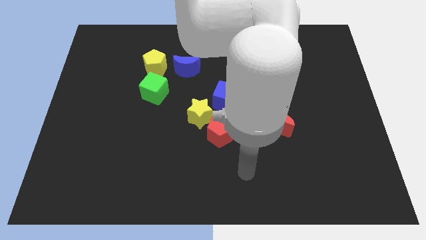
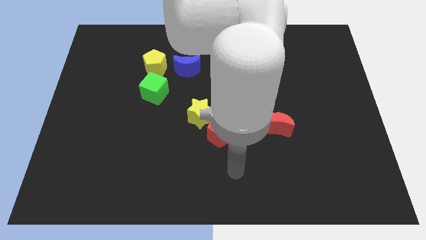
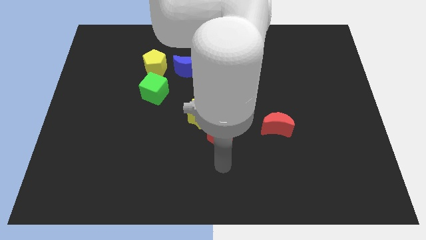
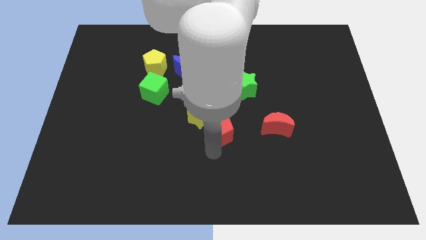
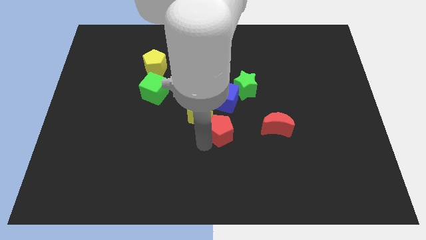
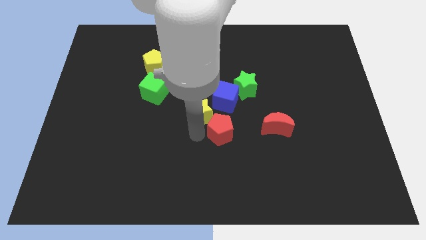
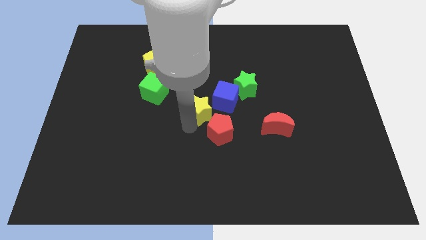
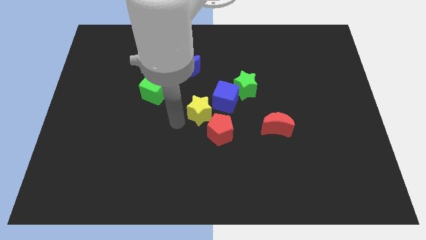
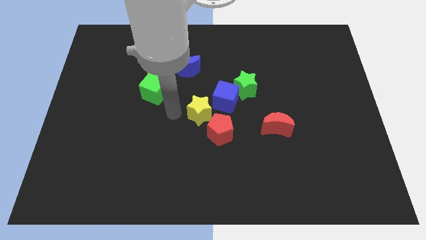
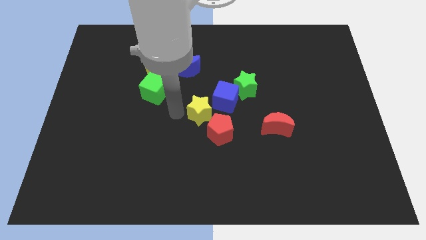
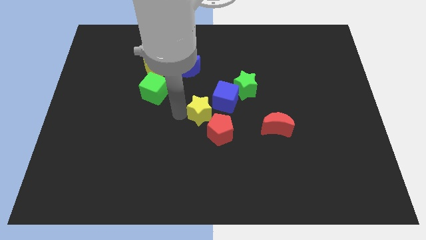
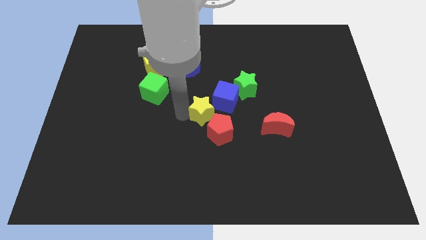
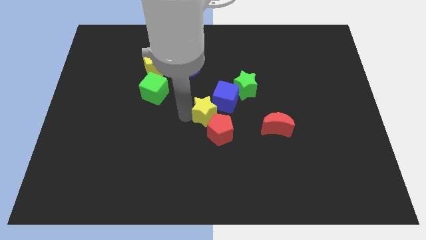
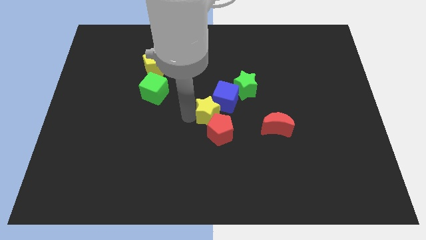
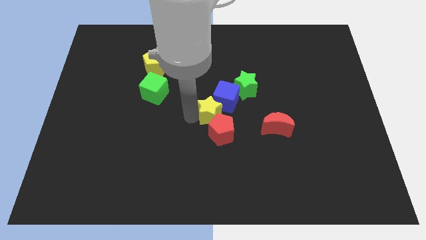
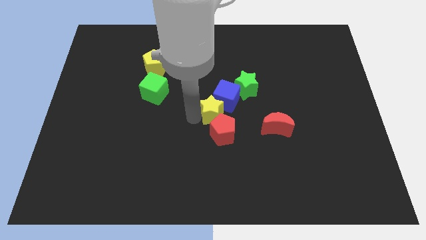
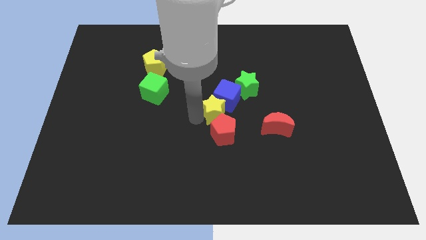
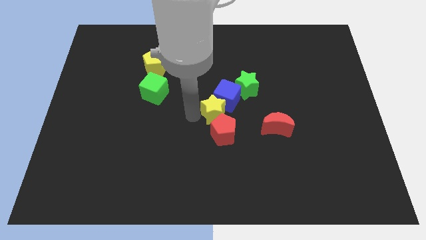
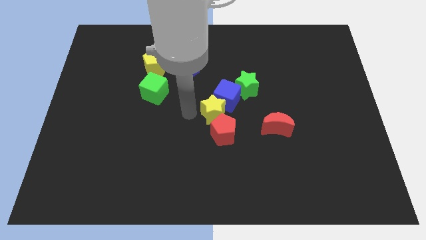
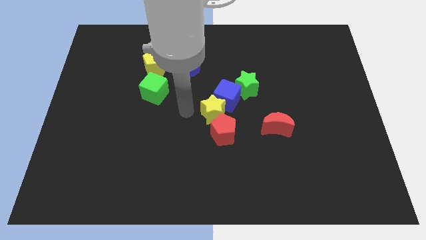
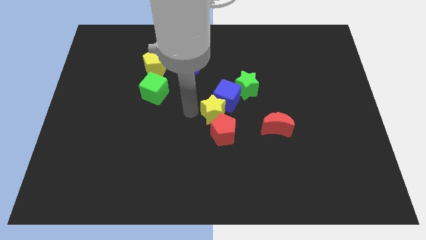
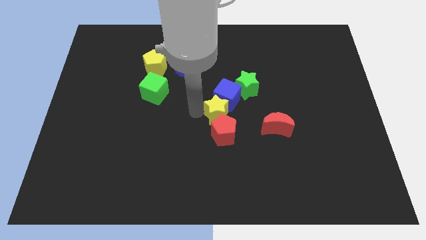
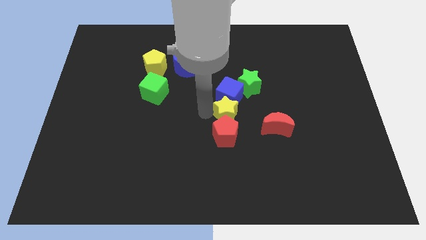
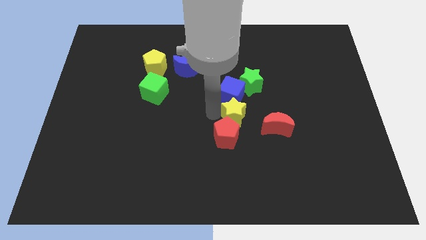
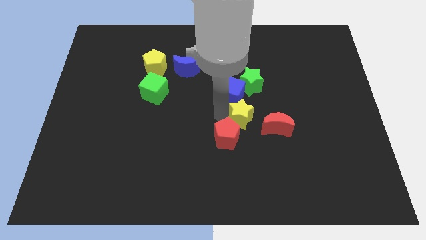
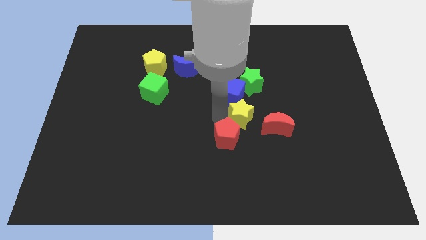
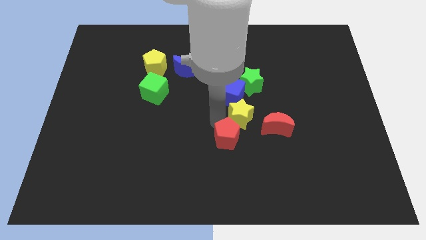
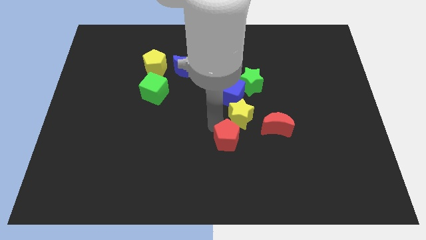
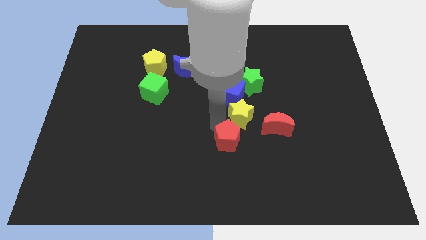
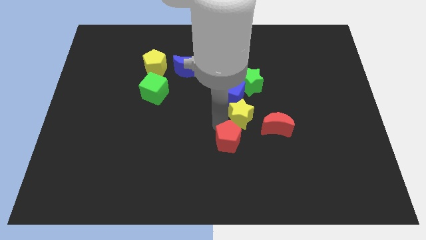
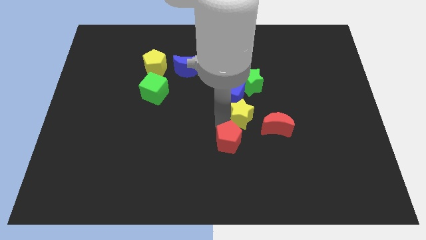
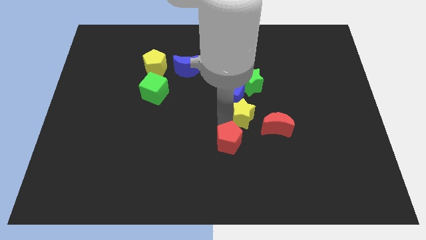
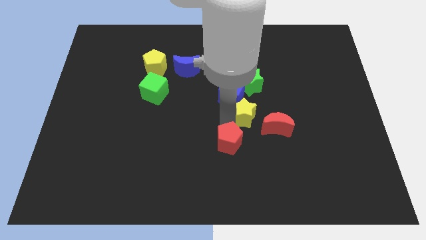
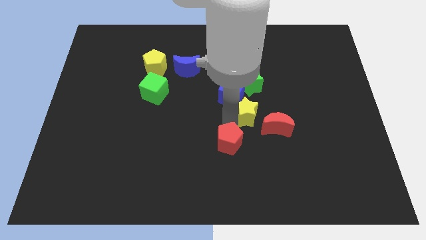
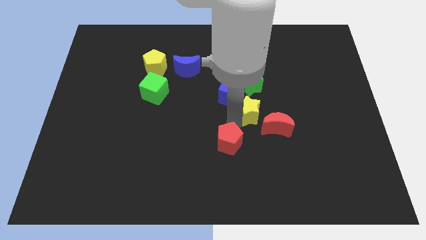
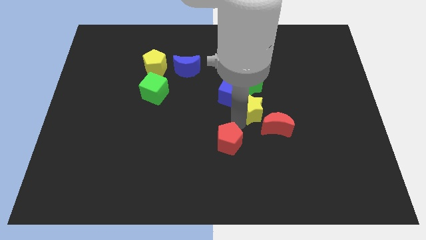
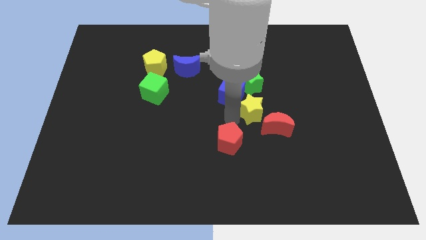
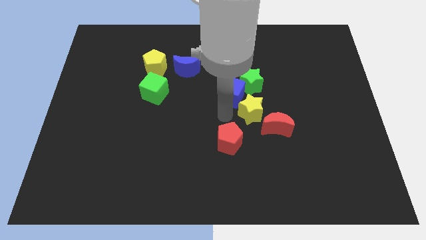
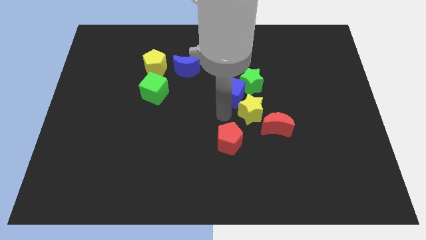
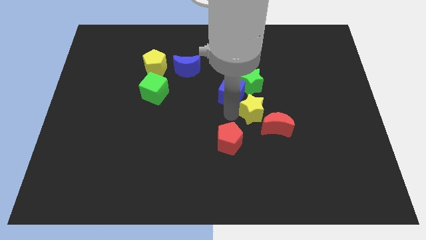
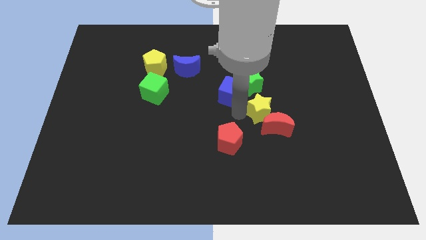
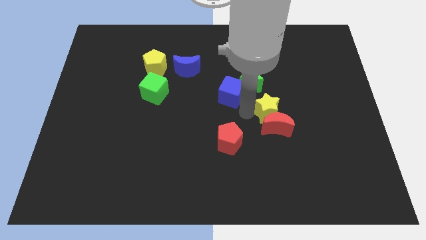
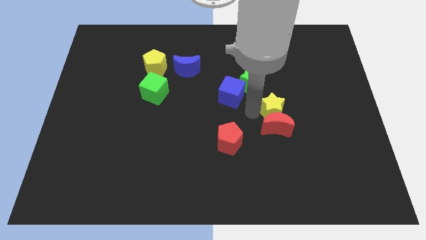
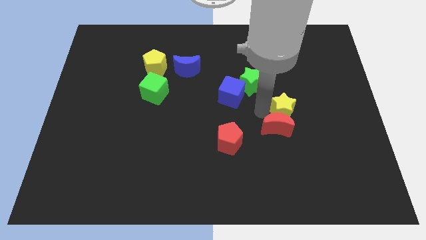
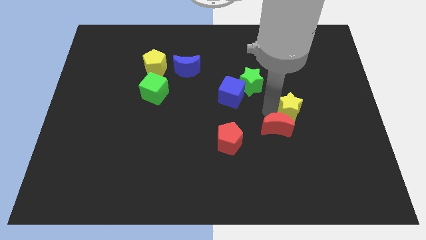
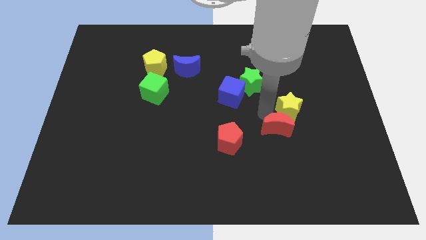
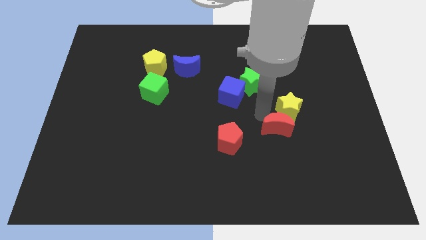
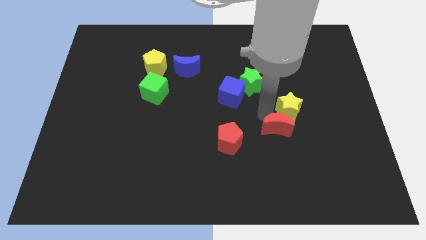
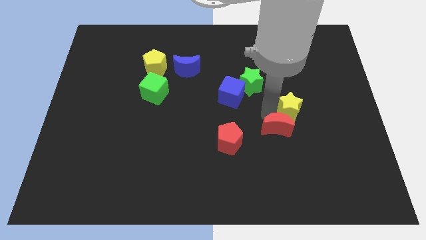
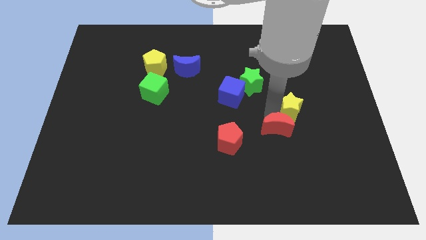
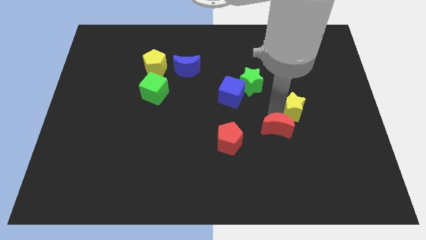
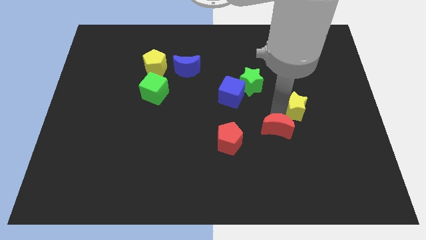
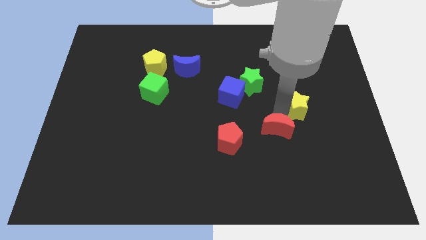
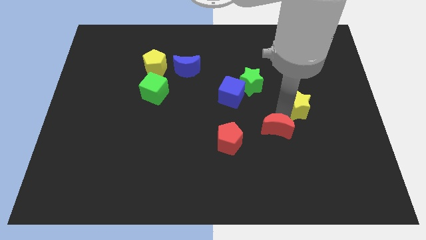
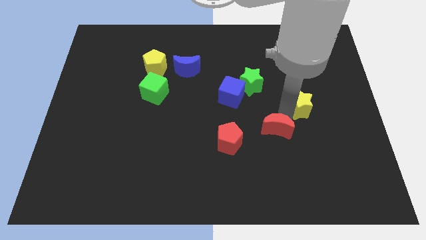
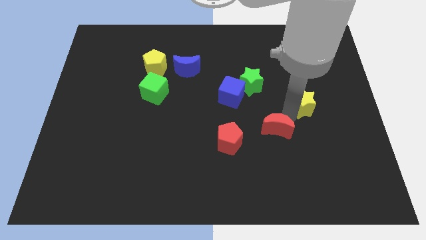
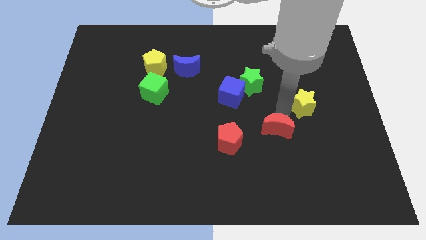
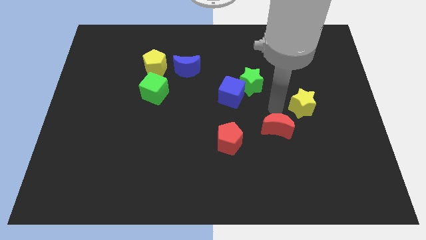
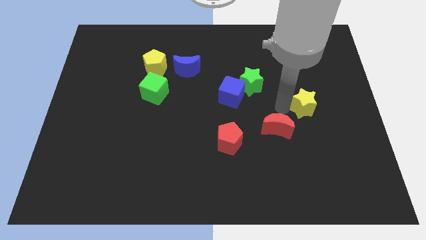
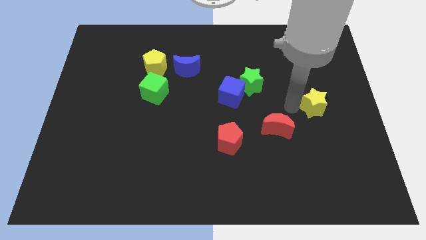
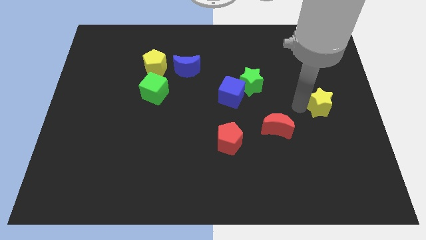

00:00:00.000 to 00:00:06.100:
push the yellow star to the right side
